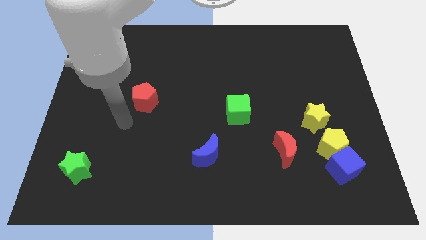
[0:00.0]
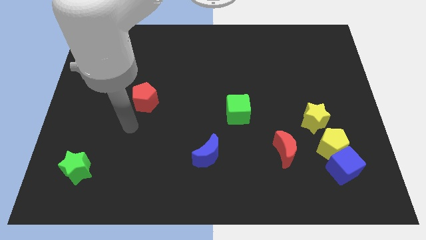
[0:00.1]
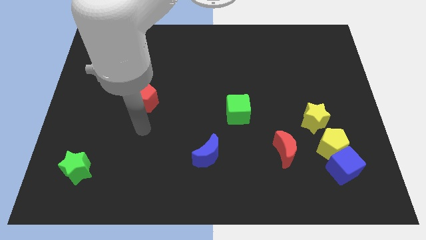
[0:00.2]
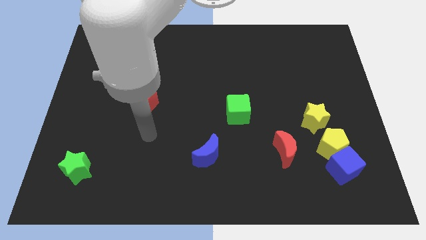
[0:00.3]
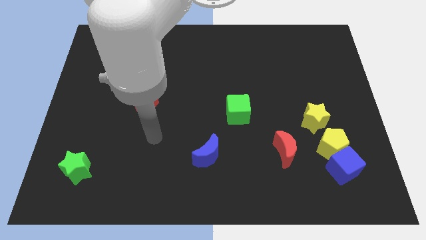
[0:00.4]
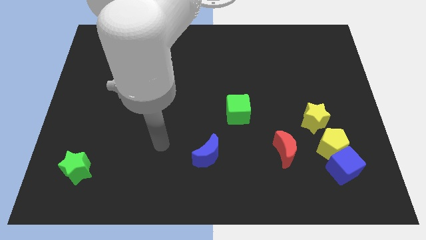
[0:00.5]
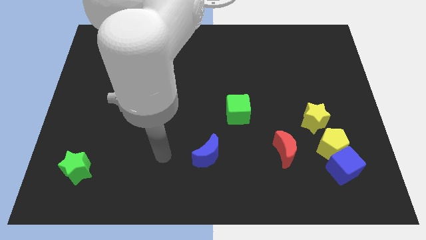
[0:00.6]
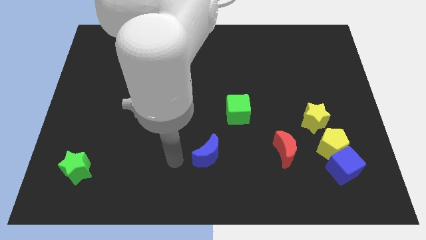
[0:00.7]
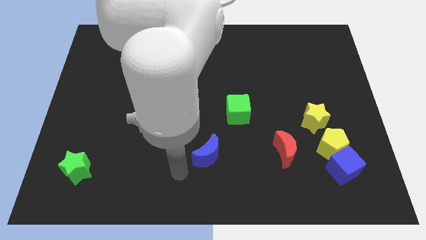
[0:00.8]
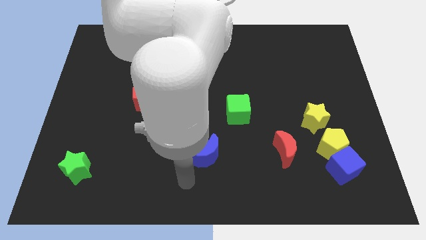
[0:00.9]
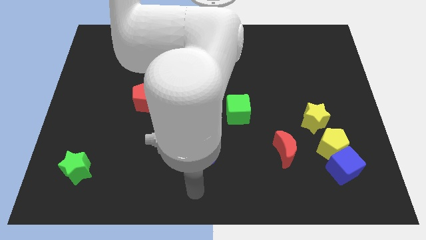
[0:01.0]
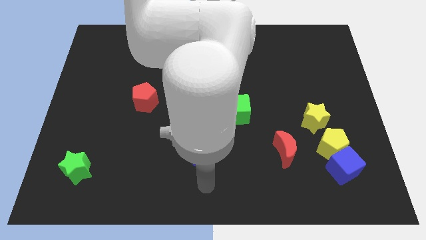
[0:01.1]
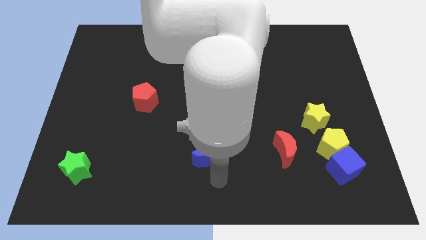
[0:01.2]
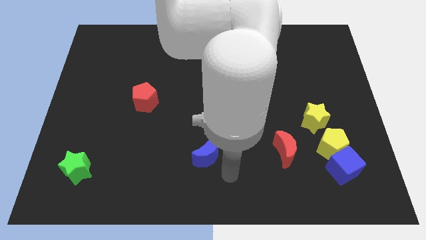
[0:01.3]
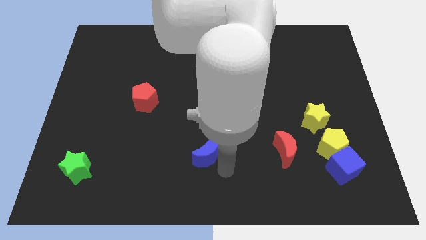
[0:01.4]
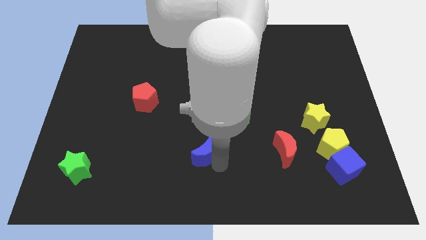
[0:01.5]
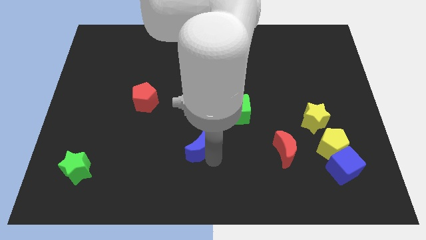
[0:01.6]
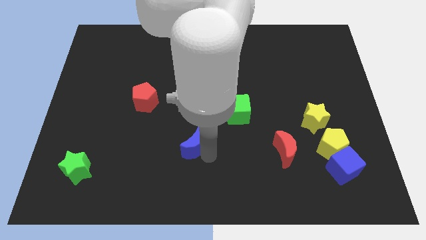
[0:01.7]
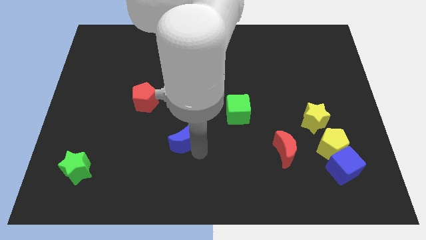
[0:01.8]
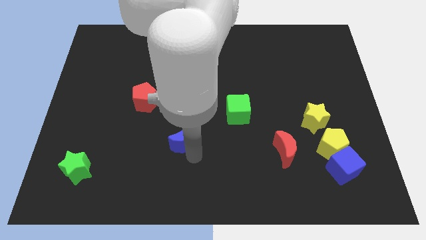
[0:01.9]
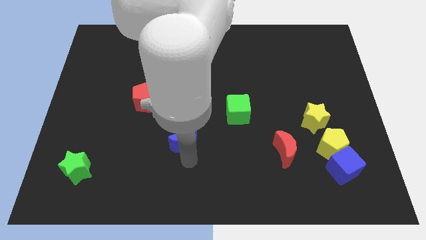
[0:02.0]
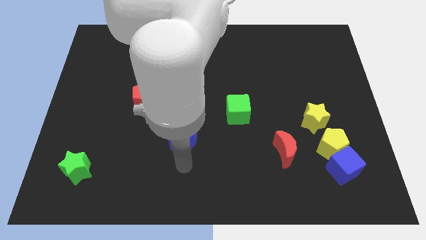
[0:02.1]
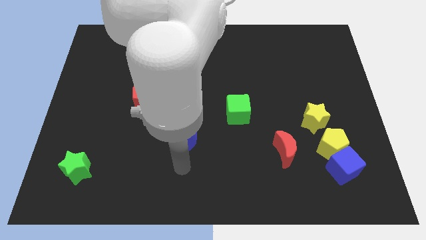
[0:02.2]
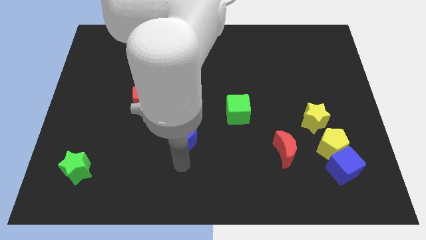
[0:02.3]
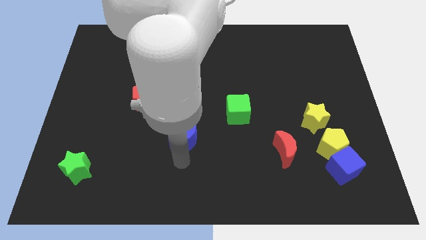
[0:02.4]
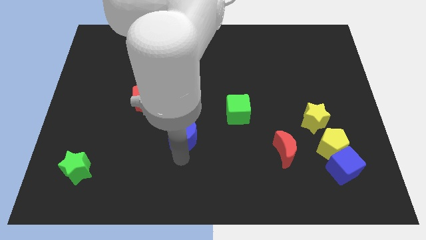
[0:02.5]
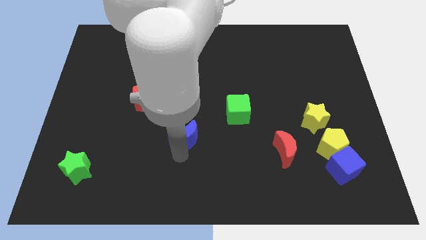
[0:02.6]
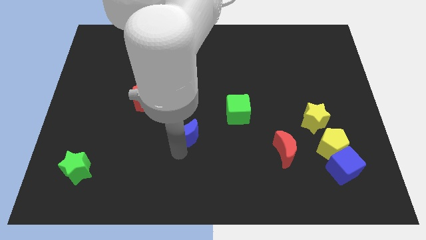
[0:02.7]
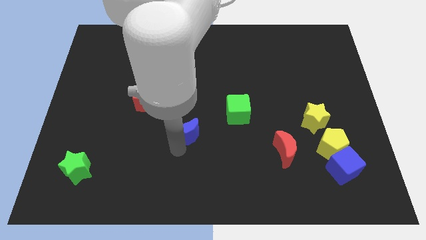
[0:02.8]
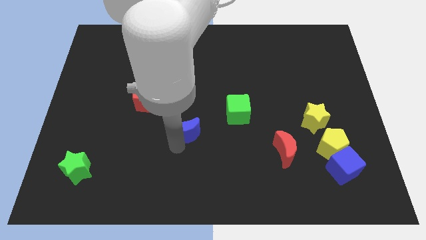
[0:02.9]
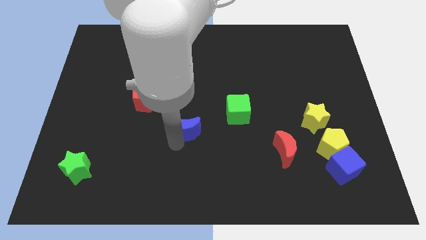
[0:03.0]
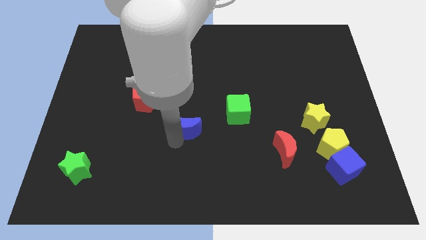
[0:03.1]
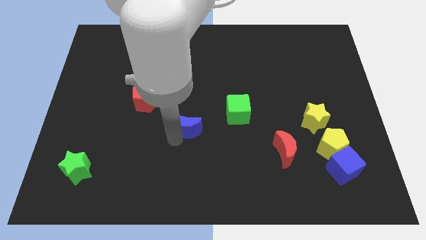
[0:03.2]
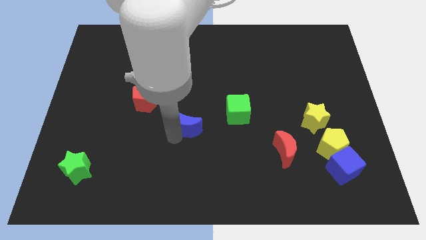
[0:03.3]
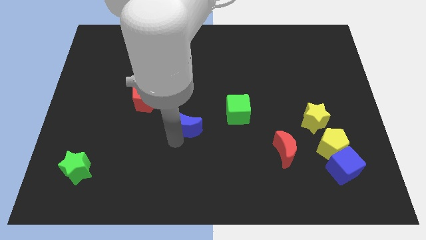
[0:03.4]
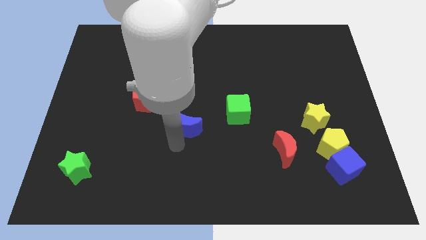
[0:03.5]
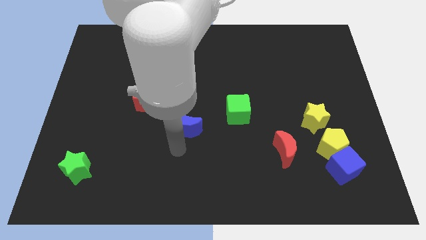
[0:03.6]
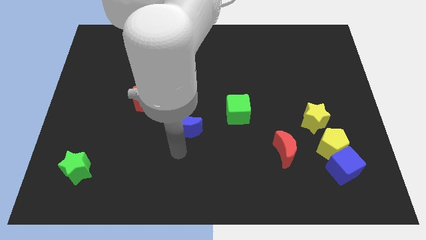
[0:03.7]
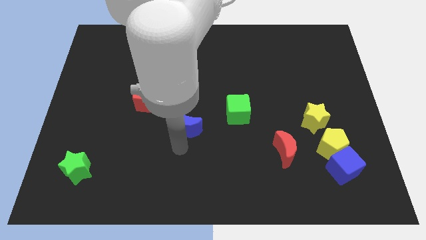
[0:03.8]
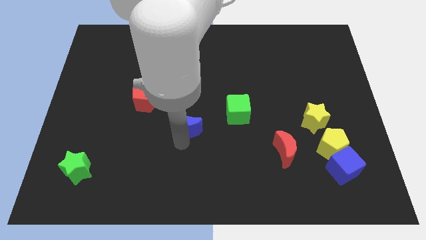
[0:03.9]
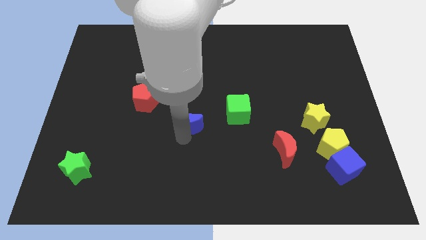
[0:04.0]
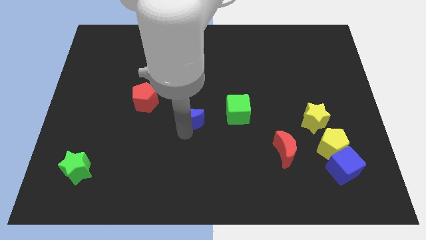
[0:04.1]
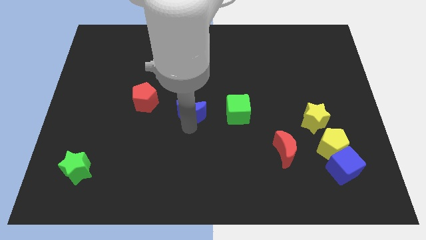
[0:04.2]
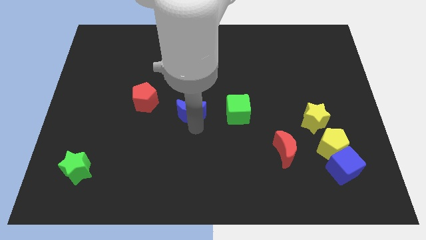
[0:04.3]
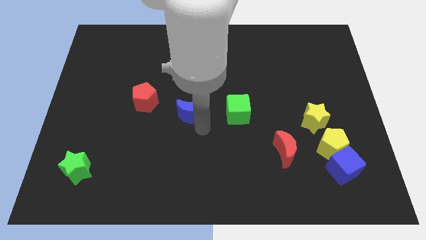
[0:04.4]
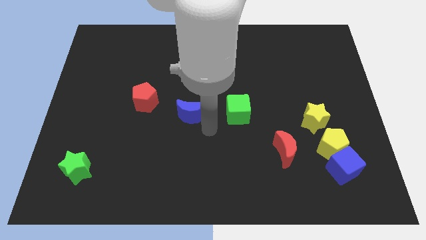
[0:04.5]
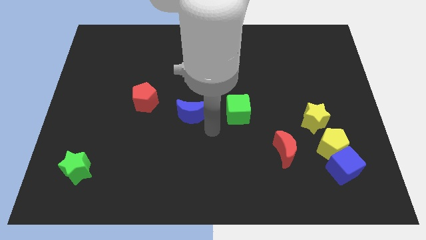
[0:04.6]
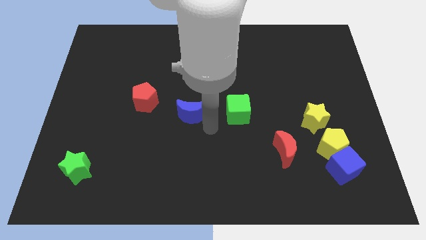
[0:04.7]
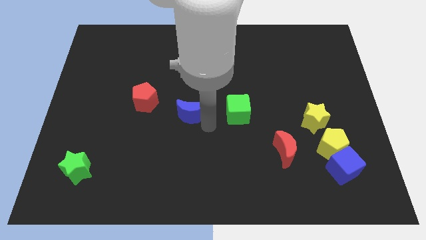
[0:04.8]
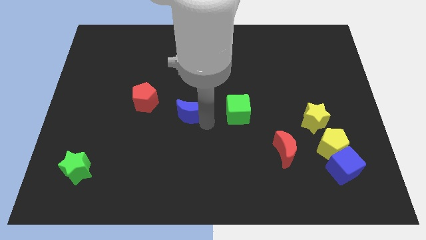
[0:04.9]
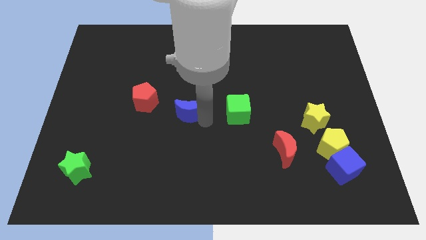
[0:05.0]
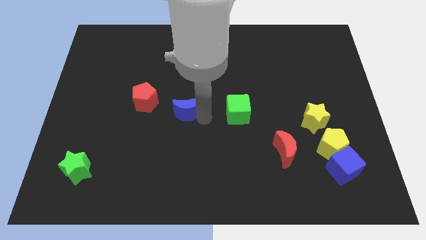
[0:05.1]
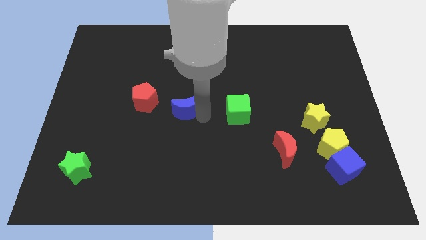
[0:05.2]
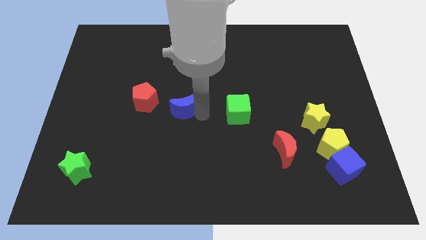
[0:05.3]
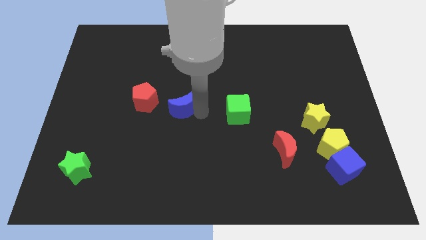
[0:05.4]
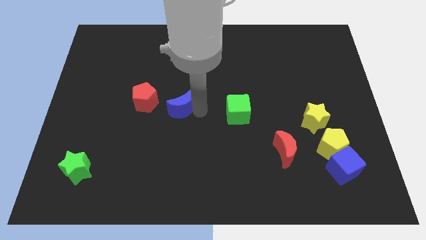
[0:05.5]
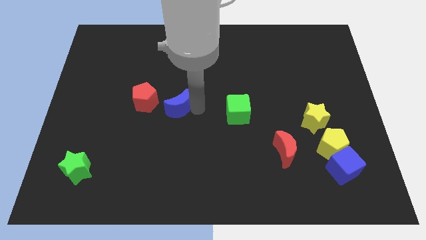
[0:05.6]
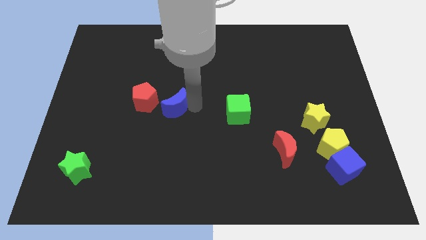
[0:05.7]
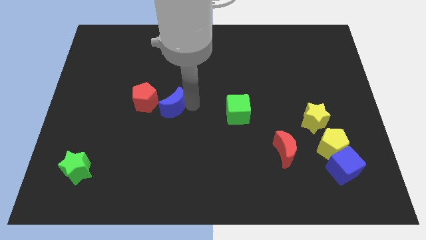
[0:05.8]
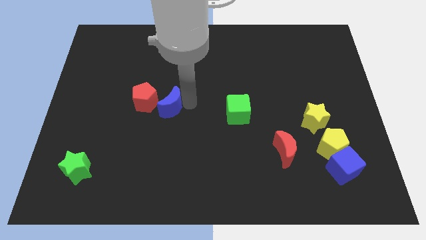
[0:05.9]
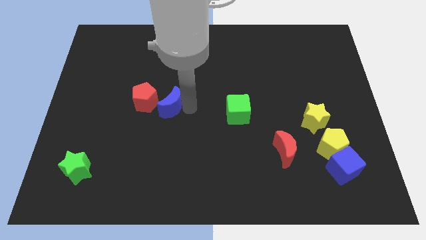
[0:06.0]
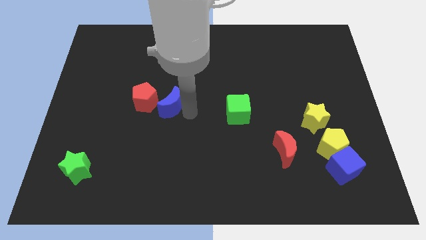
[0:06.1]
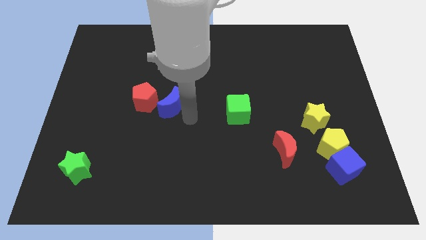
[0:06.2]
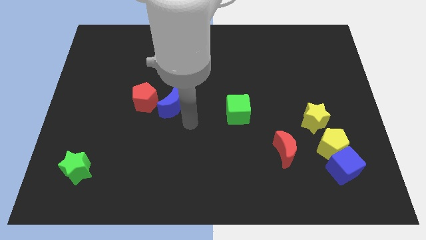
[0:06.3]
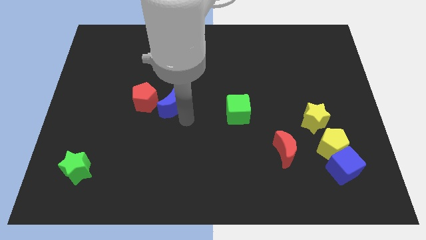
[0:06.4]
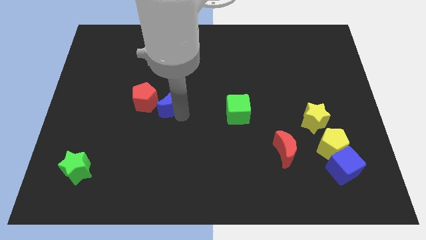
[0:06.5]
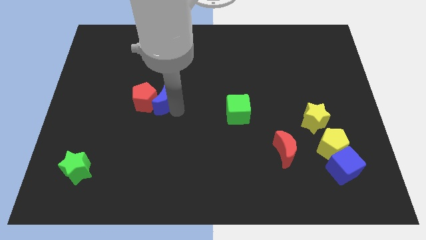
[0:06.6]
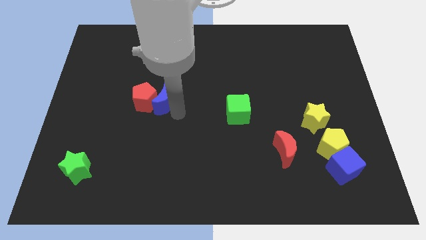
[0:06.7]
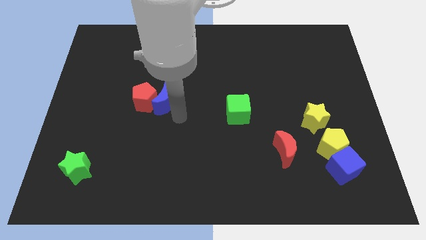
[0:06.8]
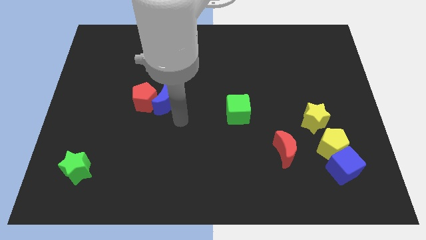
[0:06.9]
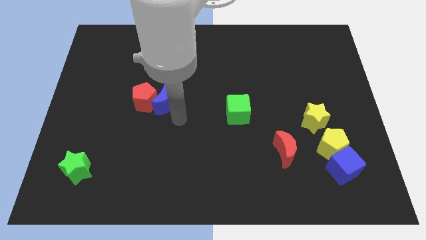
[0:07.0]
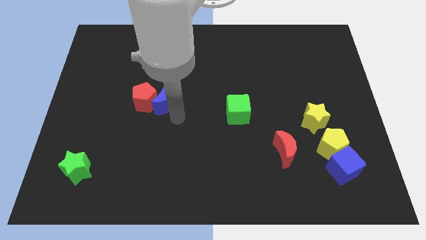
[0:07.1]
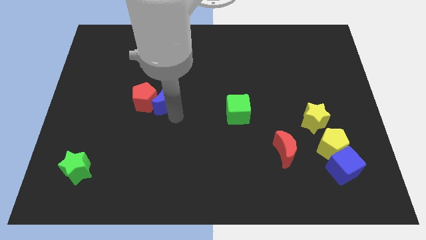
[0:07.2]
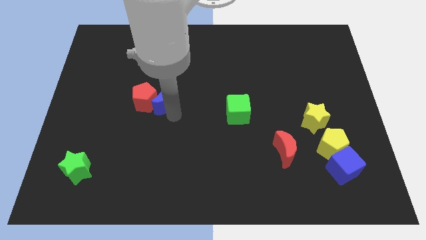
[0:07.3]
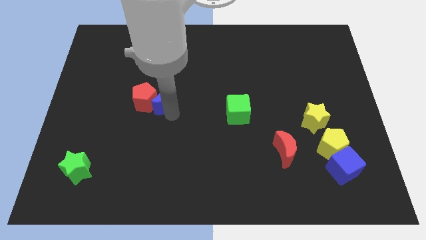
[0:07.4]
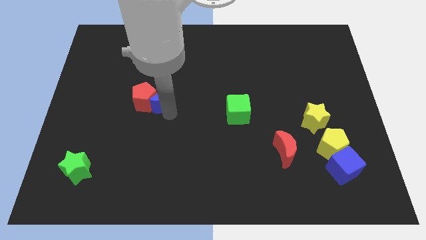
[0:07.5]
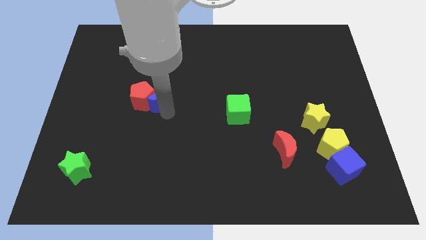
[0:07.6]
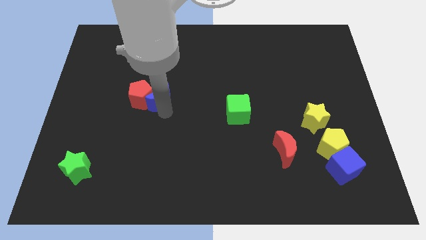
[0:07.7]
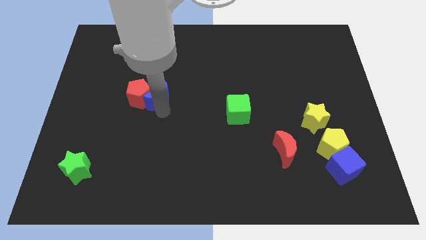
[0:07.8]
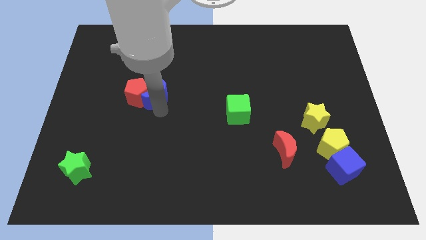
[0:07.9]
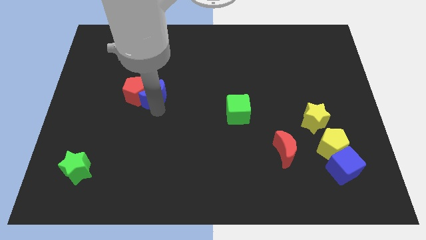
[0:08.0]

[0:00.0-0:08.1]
move the blue moon diagonally upwards and left

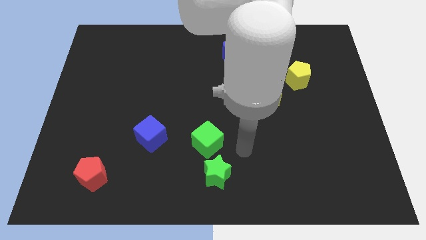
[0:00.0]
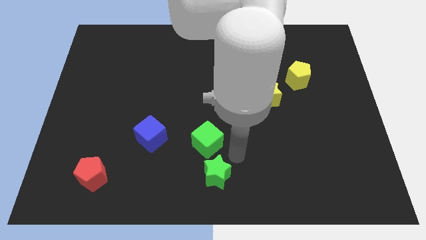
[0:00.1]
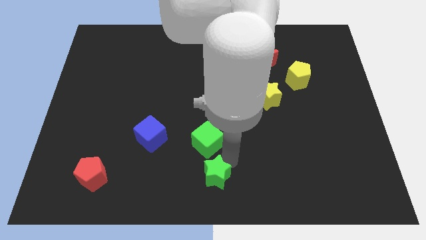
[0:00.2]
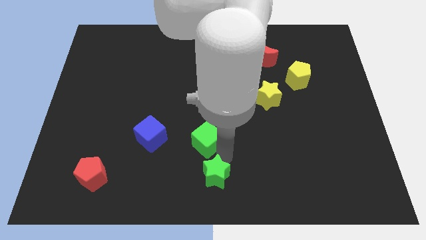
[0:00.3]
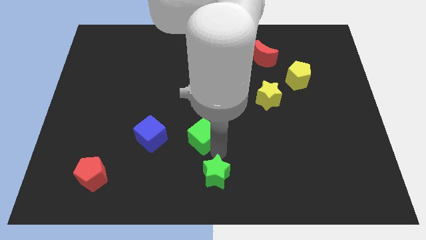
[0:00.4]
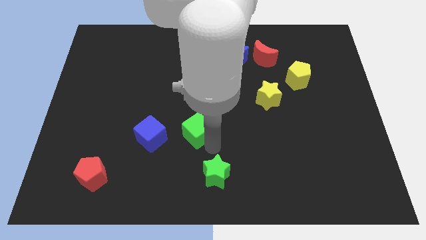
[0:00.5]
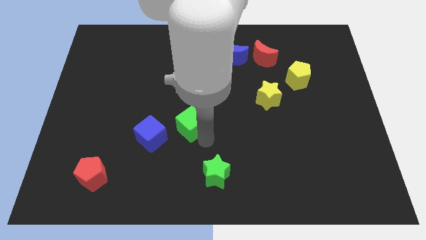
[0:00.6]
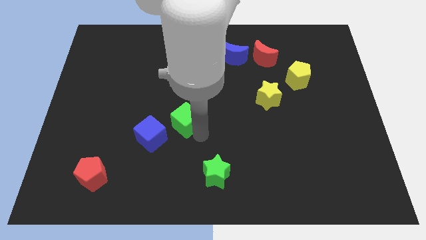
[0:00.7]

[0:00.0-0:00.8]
push the green cube up and left a little
